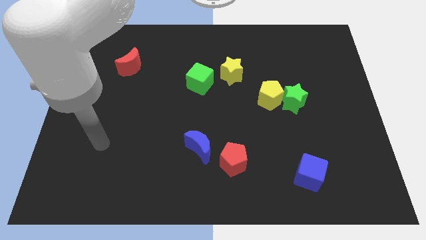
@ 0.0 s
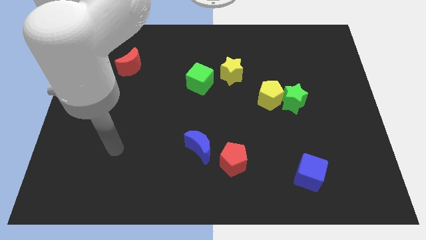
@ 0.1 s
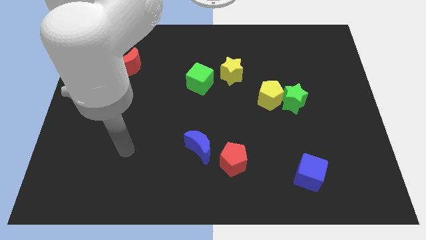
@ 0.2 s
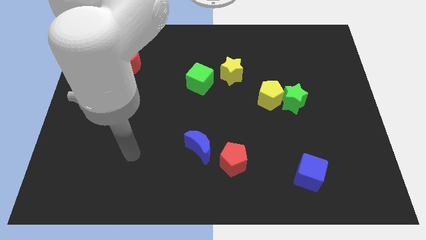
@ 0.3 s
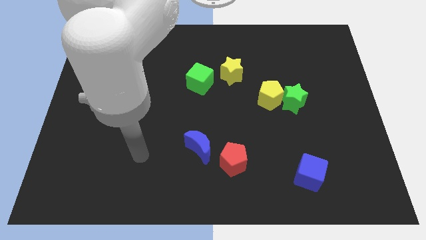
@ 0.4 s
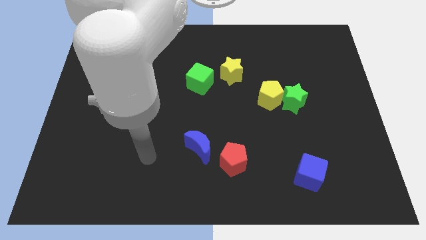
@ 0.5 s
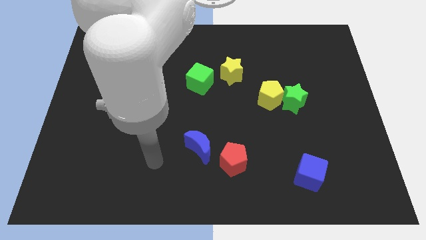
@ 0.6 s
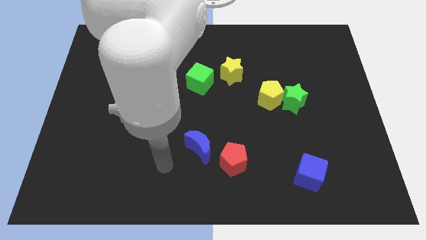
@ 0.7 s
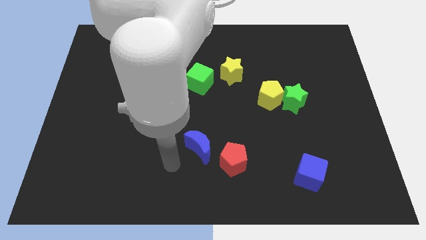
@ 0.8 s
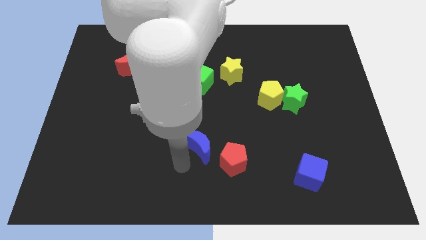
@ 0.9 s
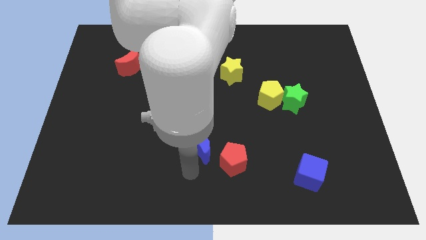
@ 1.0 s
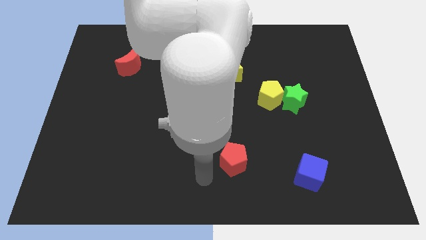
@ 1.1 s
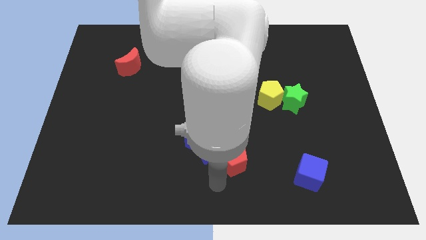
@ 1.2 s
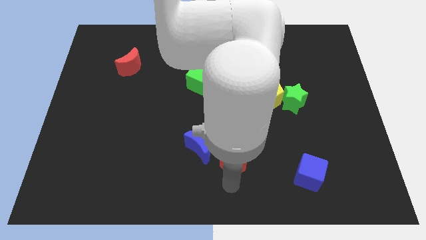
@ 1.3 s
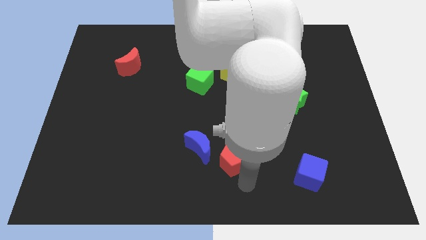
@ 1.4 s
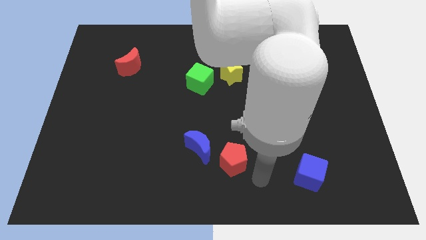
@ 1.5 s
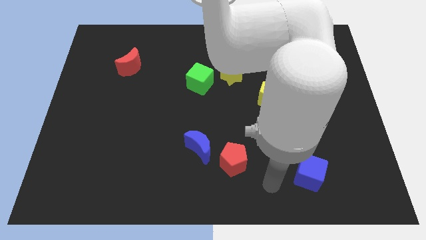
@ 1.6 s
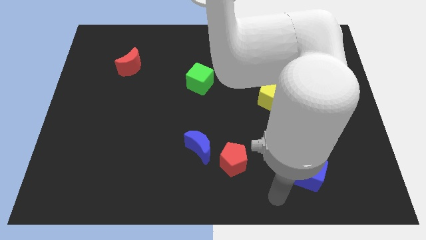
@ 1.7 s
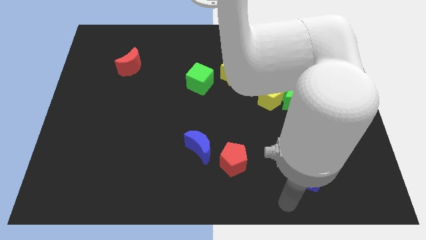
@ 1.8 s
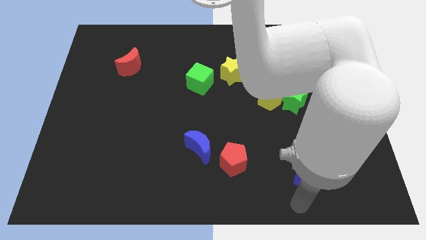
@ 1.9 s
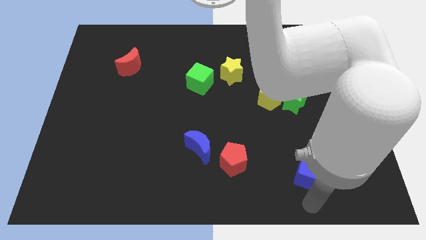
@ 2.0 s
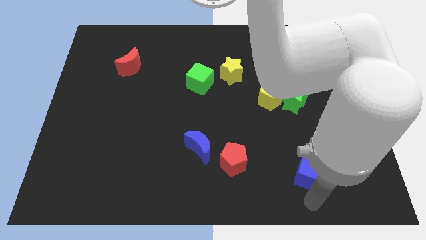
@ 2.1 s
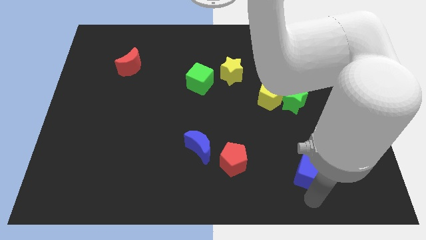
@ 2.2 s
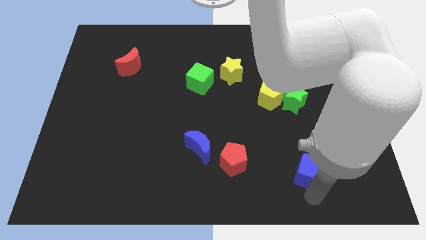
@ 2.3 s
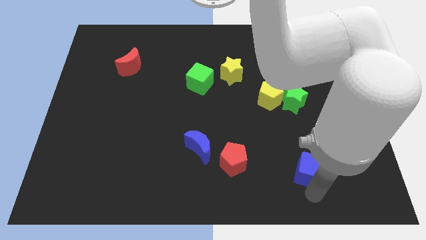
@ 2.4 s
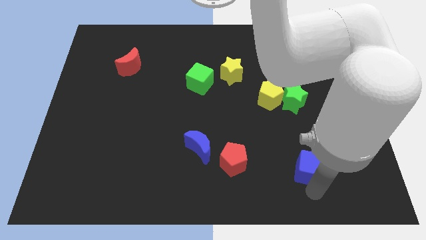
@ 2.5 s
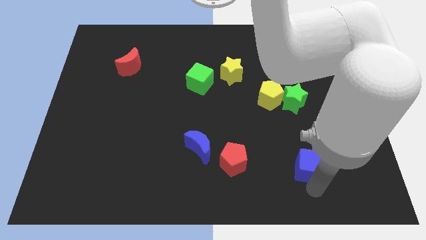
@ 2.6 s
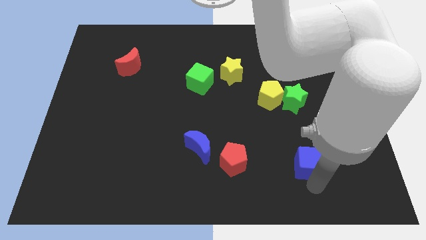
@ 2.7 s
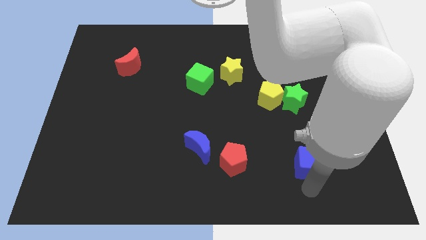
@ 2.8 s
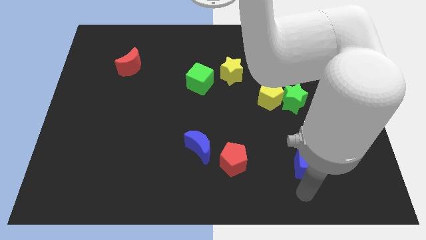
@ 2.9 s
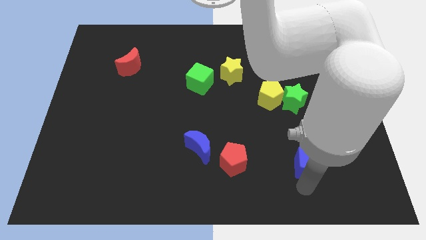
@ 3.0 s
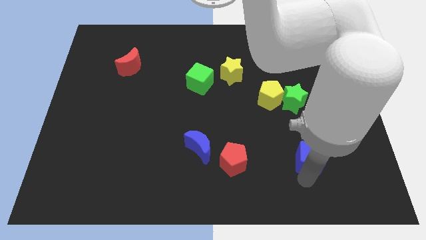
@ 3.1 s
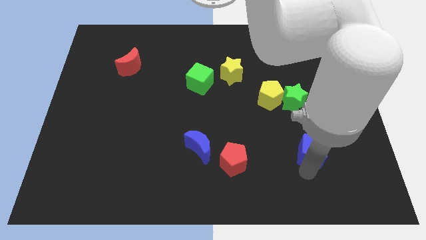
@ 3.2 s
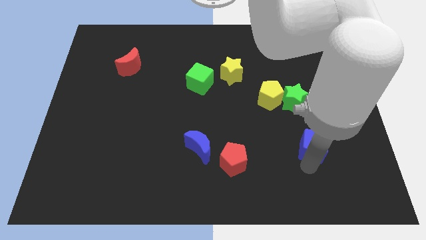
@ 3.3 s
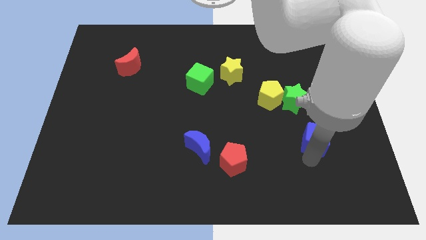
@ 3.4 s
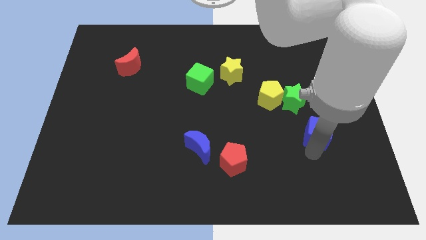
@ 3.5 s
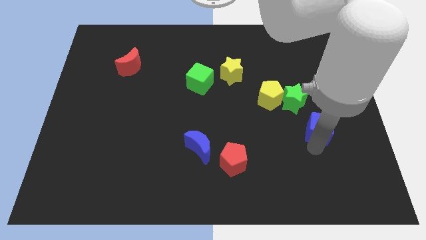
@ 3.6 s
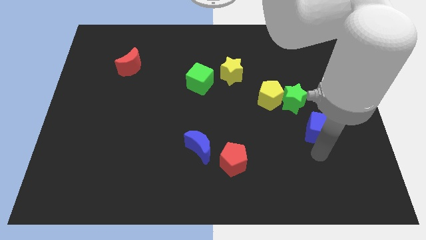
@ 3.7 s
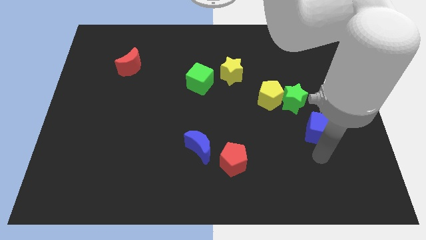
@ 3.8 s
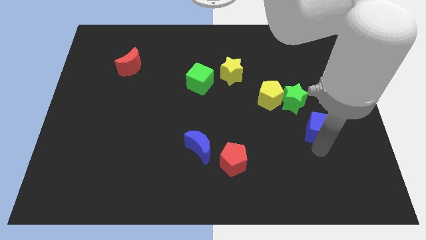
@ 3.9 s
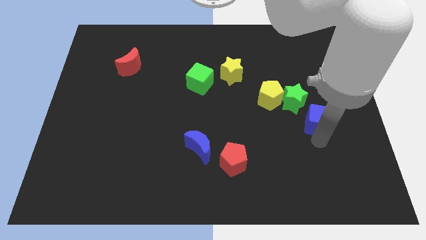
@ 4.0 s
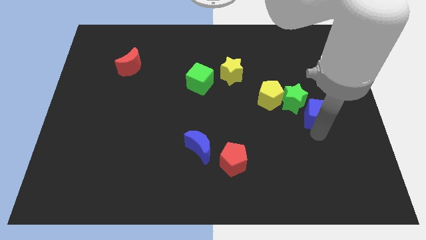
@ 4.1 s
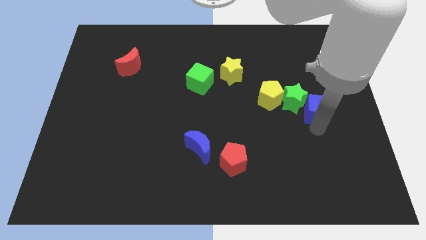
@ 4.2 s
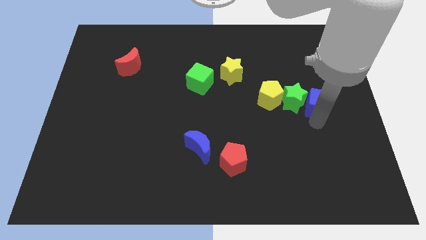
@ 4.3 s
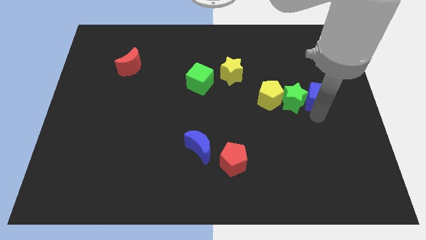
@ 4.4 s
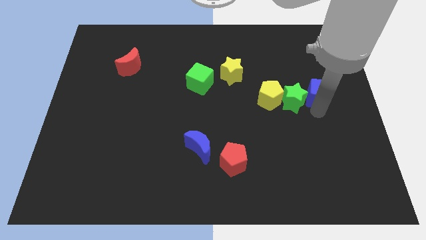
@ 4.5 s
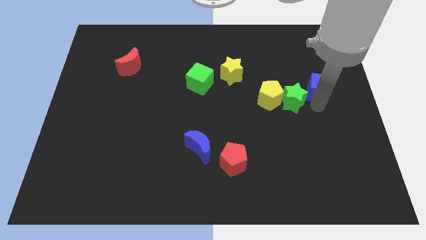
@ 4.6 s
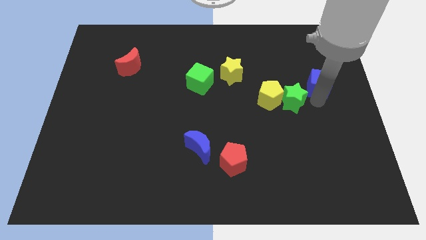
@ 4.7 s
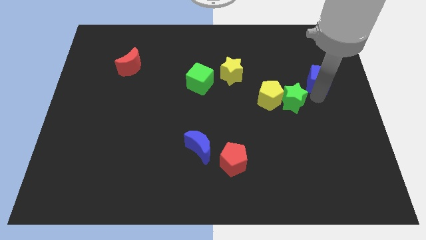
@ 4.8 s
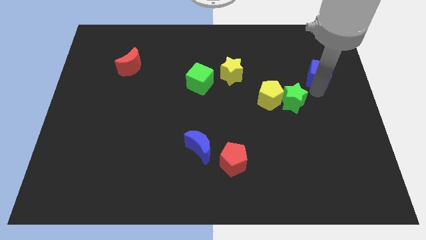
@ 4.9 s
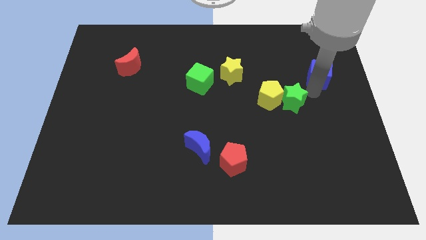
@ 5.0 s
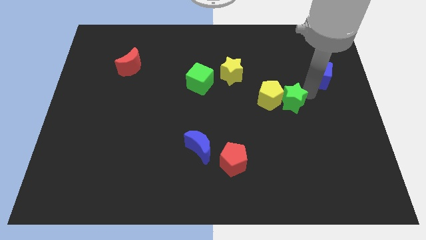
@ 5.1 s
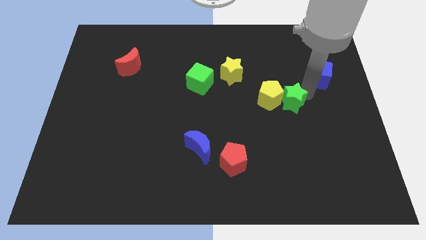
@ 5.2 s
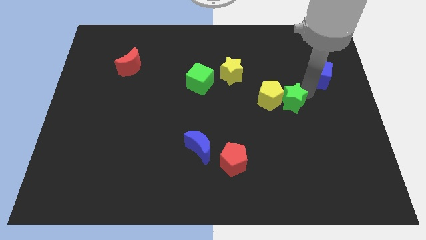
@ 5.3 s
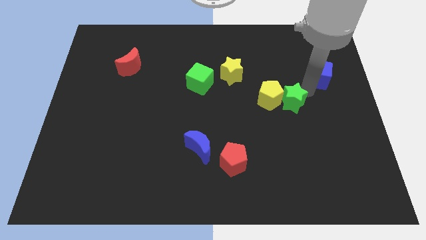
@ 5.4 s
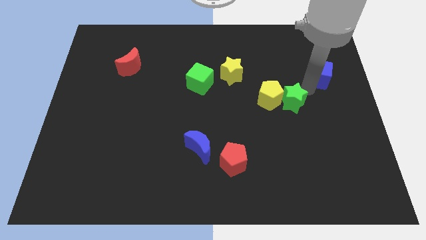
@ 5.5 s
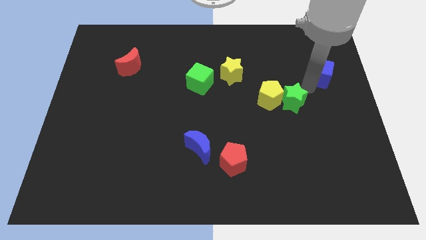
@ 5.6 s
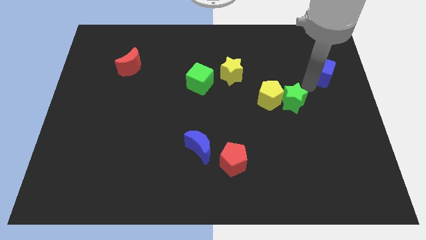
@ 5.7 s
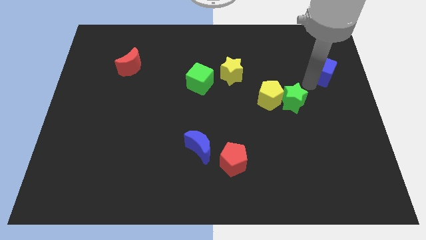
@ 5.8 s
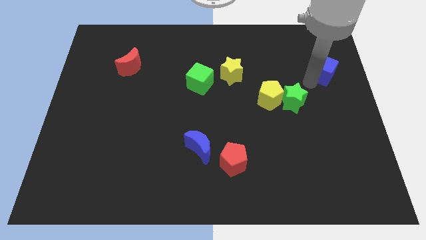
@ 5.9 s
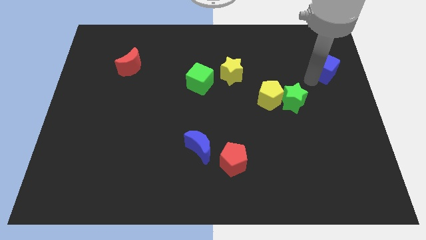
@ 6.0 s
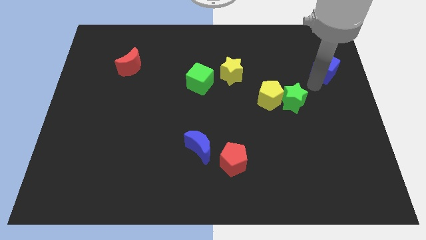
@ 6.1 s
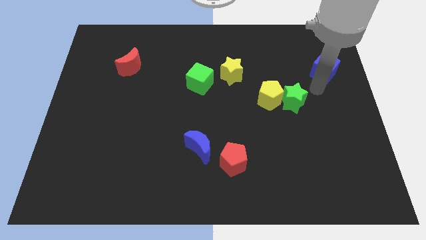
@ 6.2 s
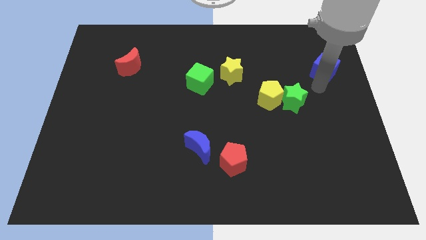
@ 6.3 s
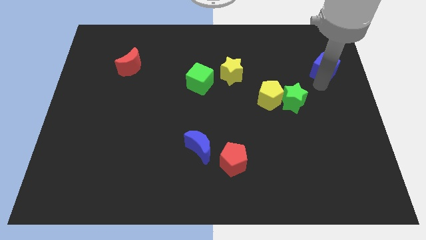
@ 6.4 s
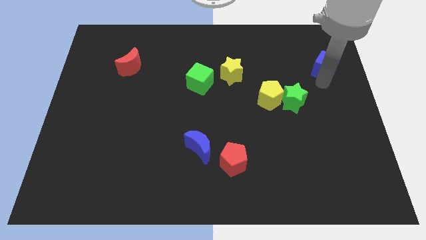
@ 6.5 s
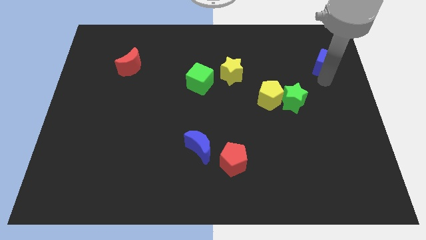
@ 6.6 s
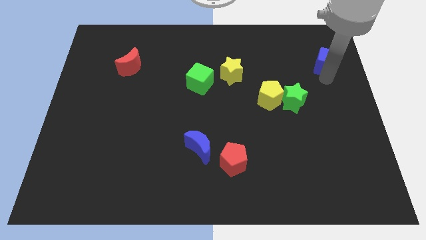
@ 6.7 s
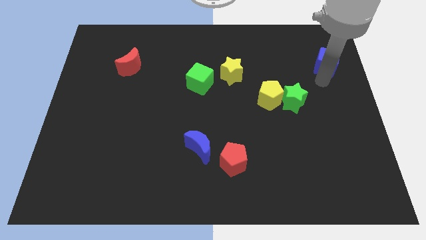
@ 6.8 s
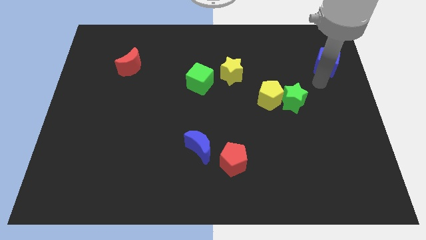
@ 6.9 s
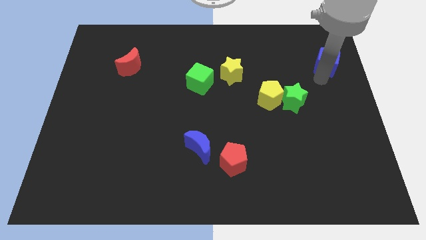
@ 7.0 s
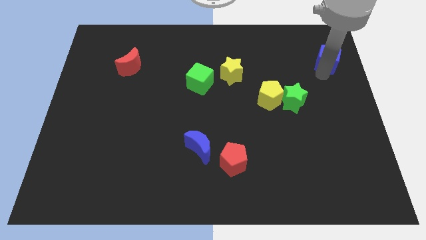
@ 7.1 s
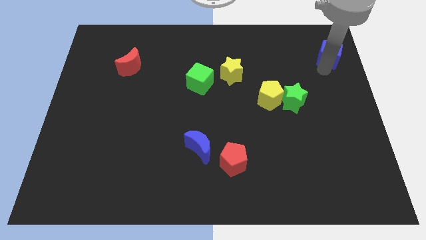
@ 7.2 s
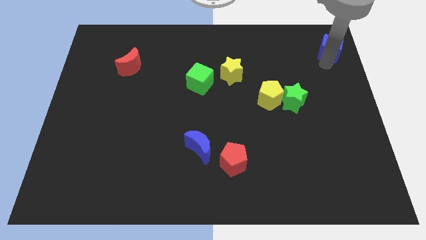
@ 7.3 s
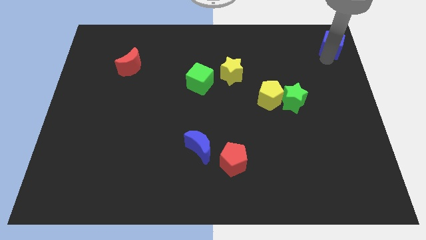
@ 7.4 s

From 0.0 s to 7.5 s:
put the blue cube to the top right
